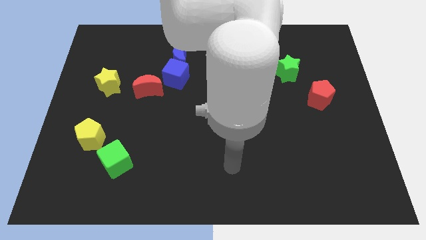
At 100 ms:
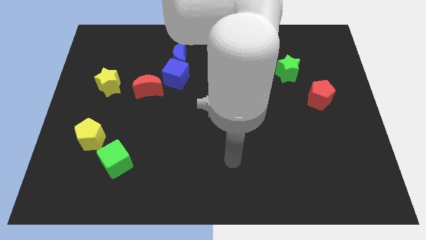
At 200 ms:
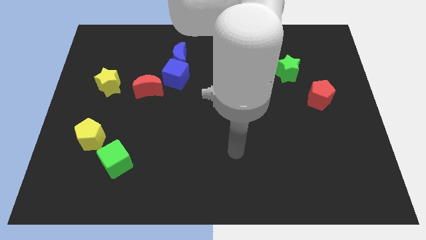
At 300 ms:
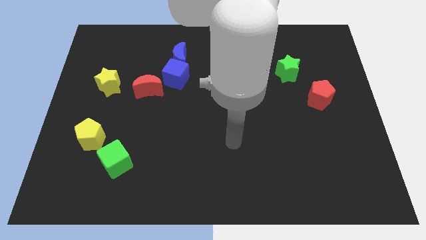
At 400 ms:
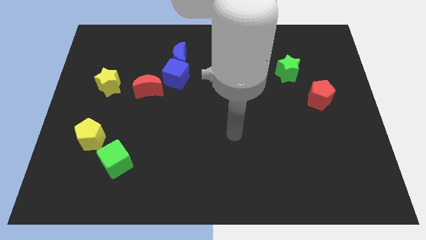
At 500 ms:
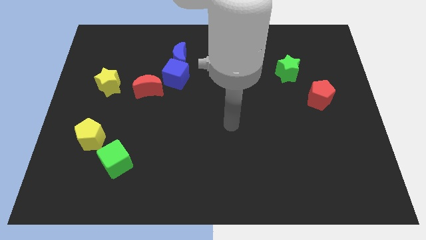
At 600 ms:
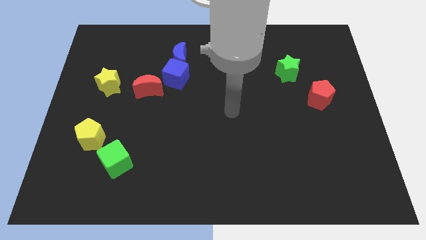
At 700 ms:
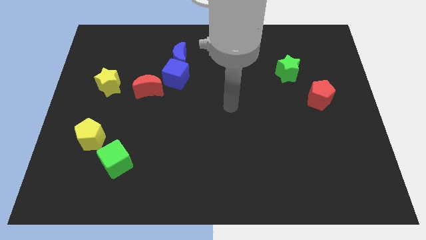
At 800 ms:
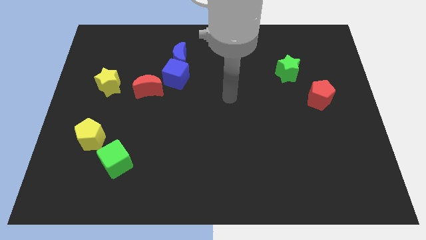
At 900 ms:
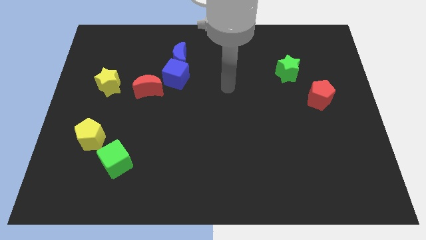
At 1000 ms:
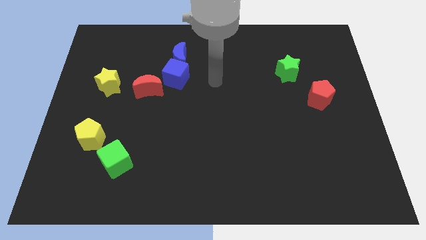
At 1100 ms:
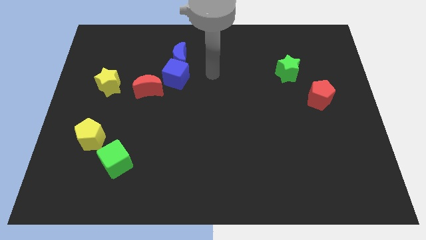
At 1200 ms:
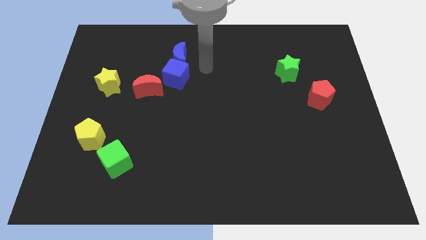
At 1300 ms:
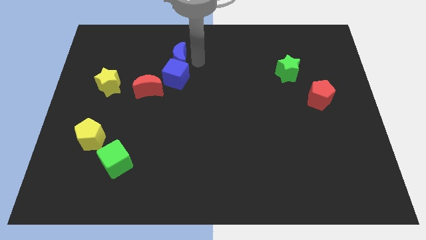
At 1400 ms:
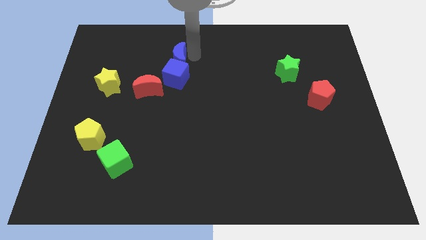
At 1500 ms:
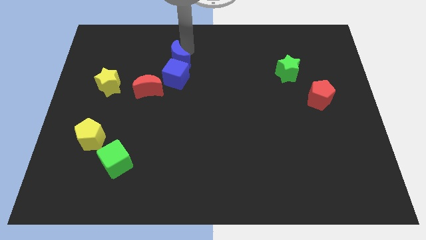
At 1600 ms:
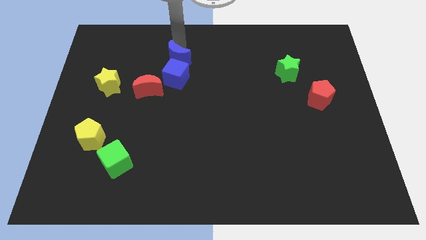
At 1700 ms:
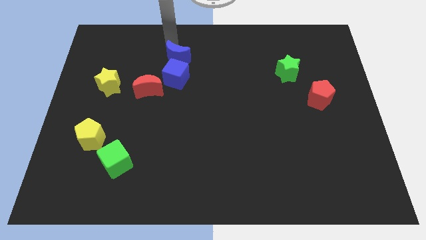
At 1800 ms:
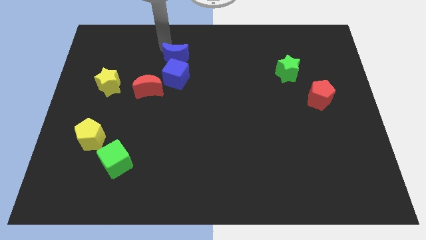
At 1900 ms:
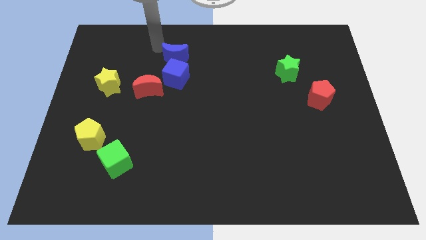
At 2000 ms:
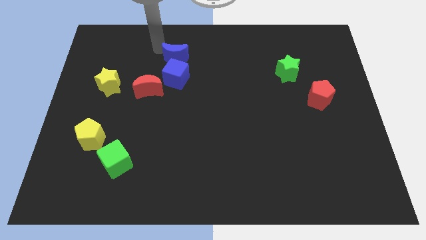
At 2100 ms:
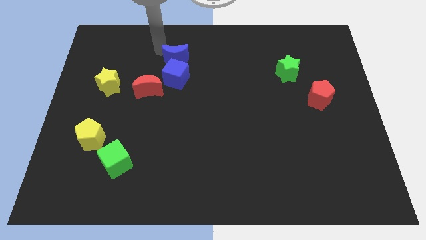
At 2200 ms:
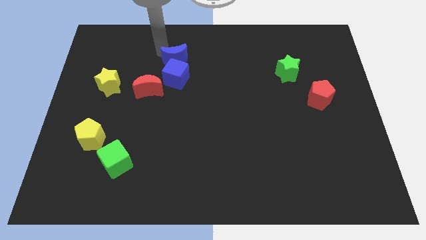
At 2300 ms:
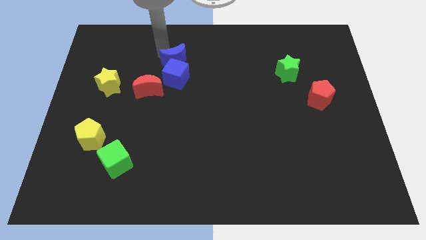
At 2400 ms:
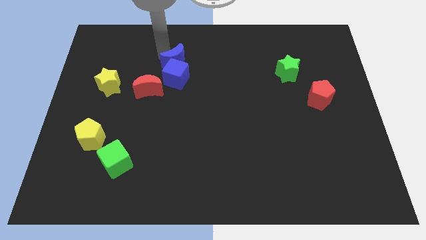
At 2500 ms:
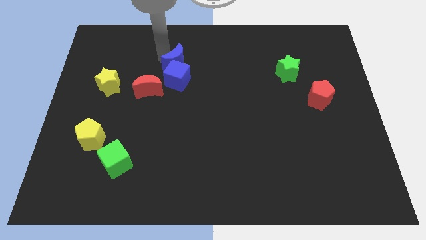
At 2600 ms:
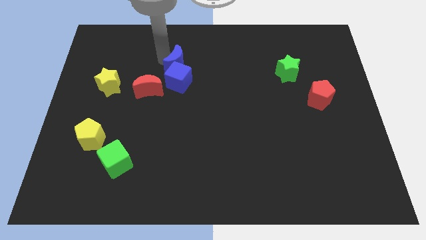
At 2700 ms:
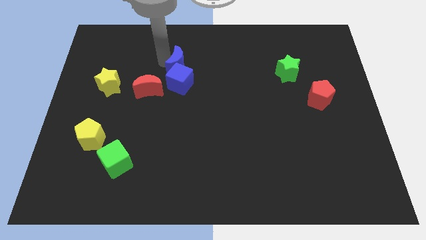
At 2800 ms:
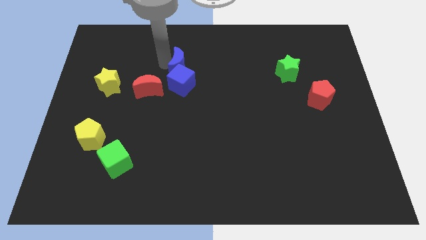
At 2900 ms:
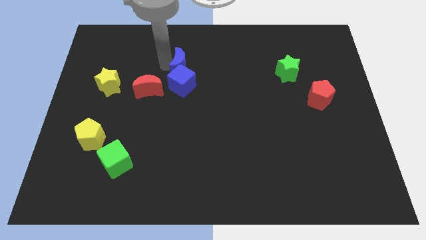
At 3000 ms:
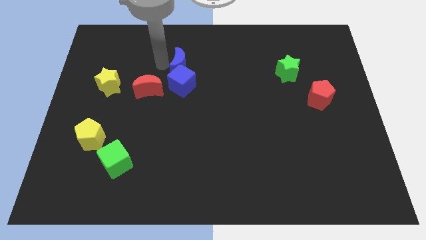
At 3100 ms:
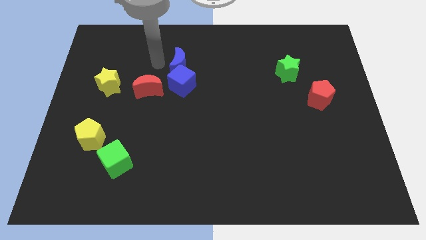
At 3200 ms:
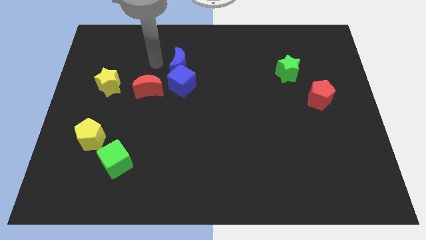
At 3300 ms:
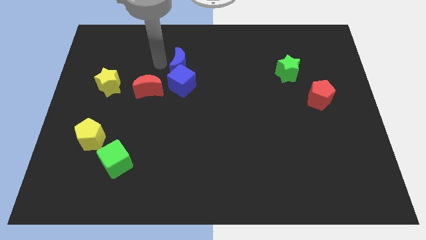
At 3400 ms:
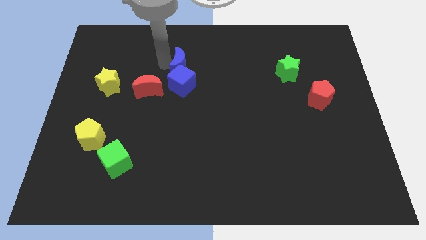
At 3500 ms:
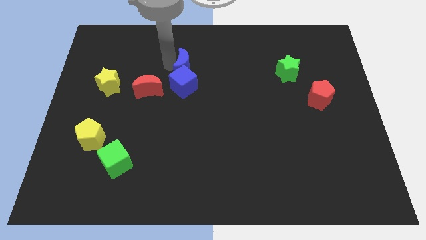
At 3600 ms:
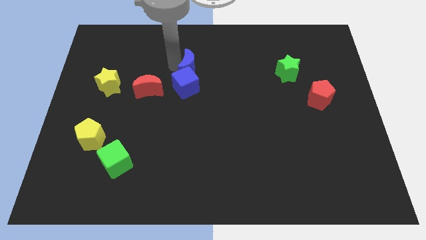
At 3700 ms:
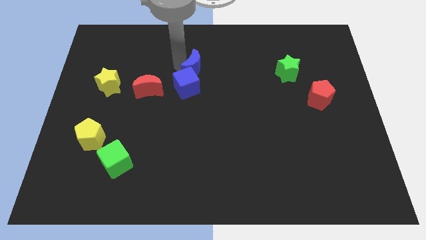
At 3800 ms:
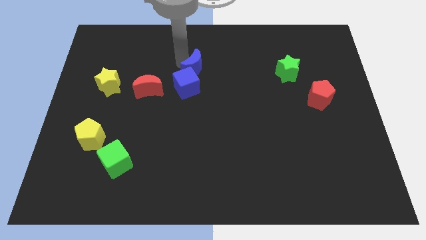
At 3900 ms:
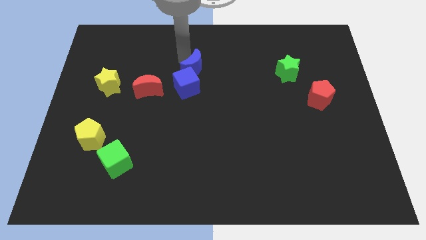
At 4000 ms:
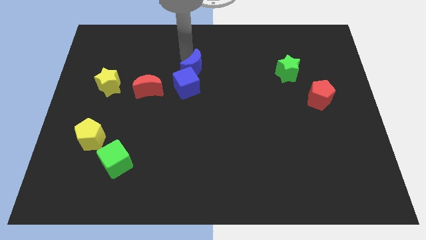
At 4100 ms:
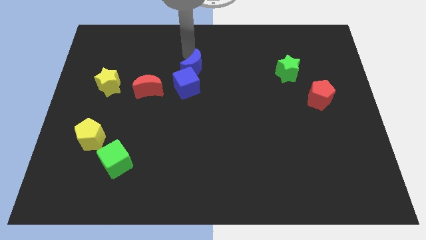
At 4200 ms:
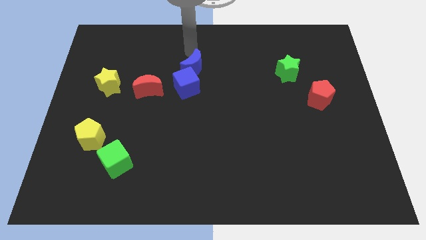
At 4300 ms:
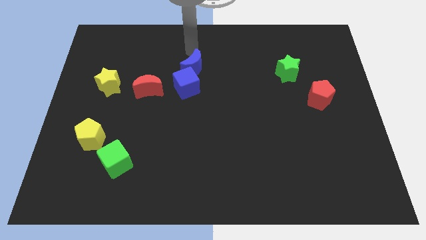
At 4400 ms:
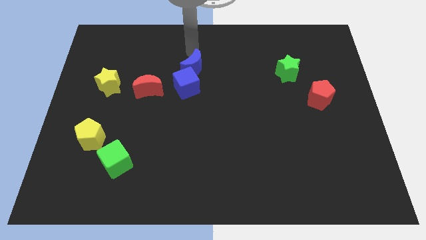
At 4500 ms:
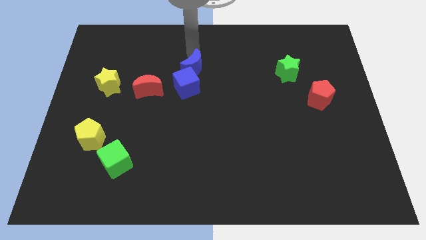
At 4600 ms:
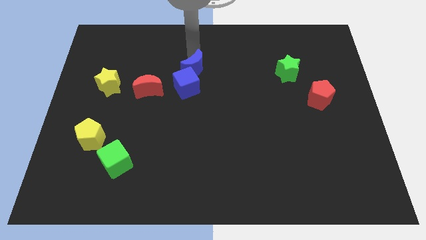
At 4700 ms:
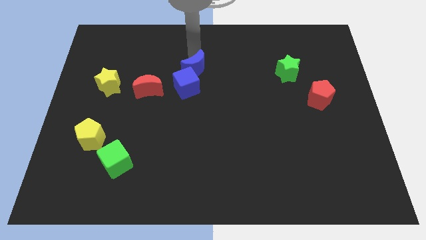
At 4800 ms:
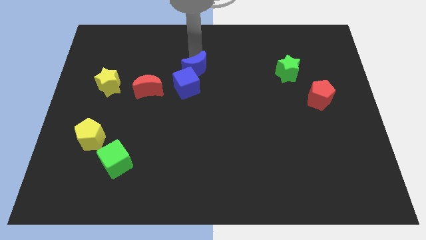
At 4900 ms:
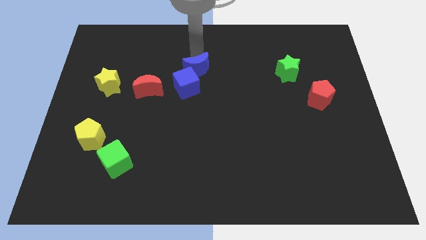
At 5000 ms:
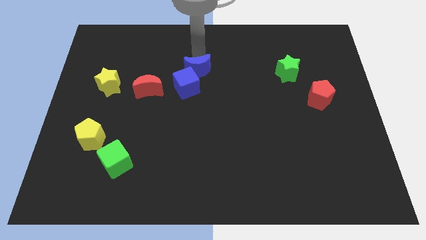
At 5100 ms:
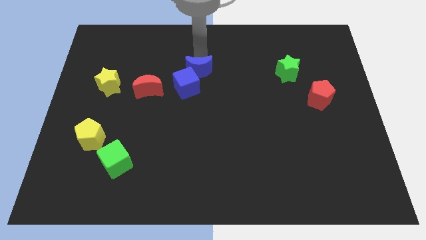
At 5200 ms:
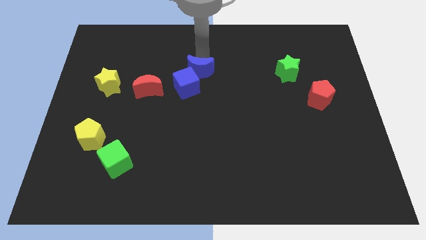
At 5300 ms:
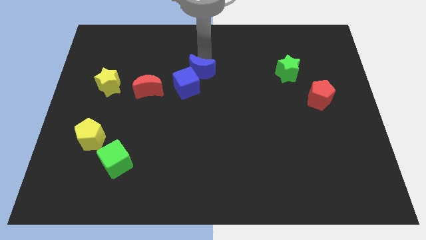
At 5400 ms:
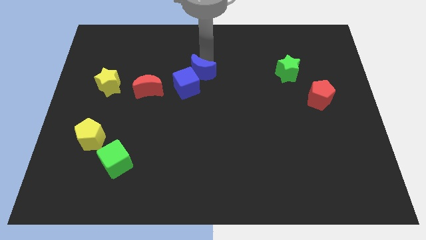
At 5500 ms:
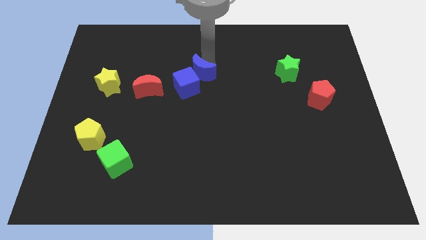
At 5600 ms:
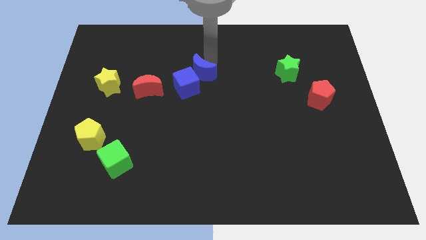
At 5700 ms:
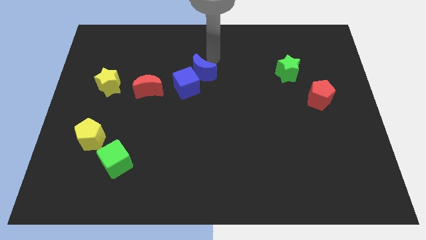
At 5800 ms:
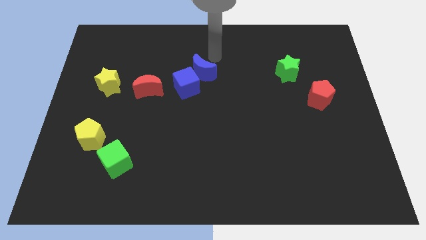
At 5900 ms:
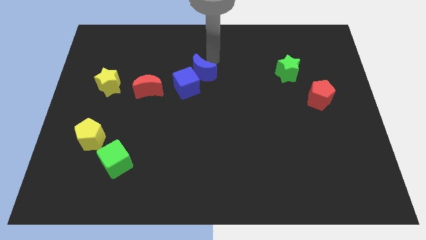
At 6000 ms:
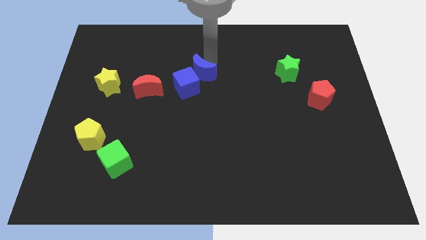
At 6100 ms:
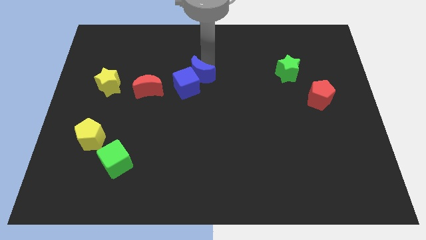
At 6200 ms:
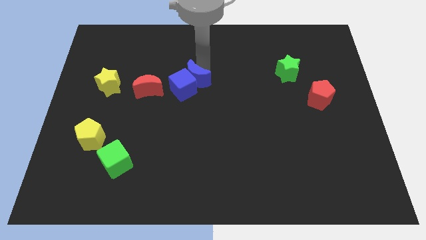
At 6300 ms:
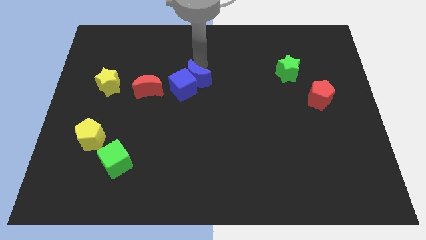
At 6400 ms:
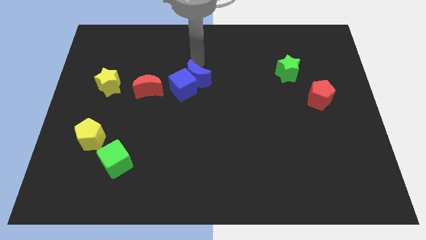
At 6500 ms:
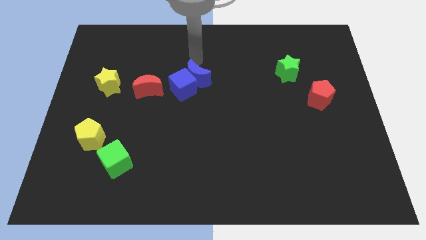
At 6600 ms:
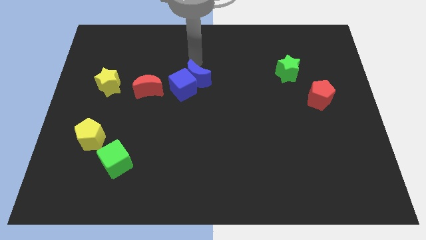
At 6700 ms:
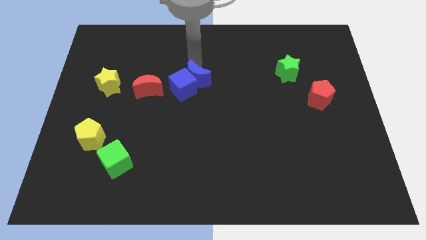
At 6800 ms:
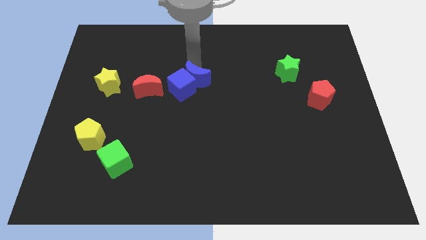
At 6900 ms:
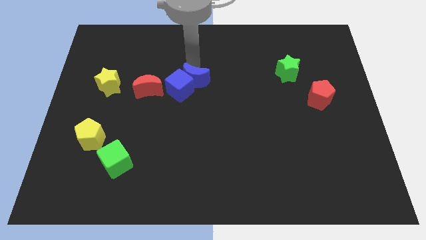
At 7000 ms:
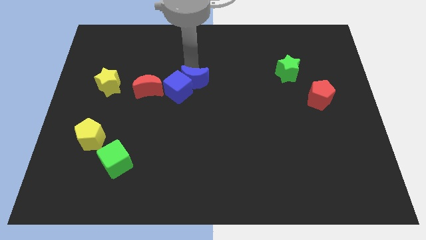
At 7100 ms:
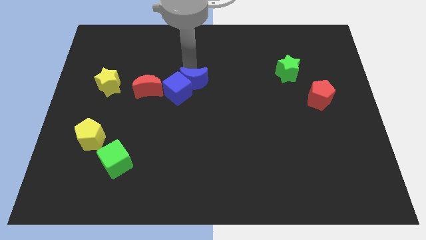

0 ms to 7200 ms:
move the blue moon down a little

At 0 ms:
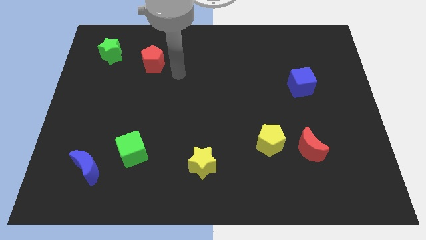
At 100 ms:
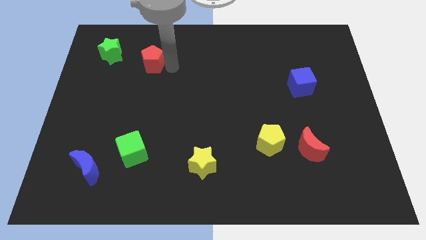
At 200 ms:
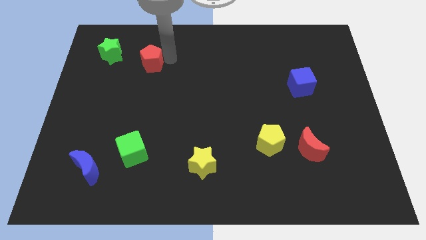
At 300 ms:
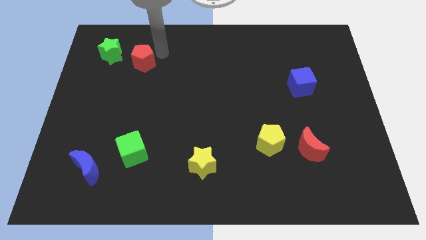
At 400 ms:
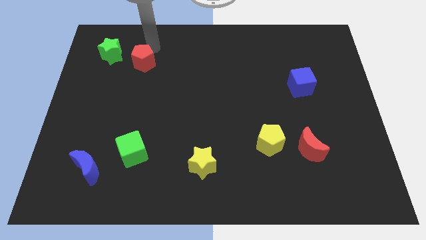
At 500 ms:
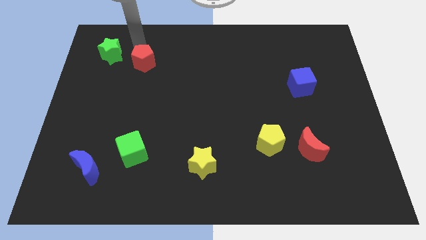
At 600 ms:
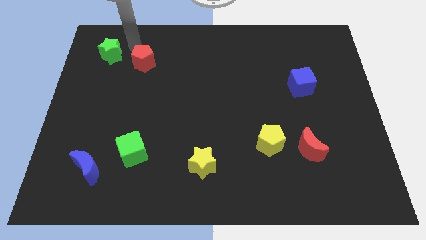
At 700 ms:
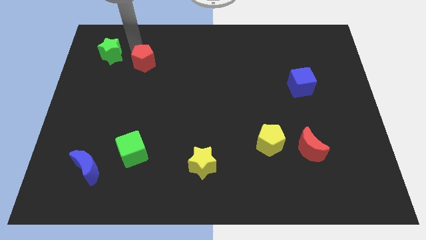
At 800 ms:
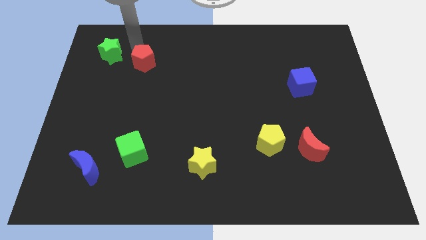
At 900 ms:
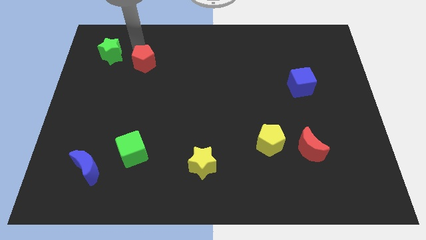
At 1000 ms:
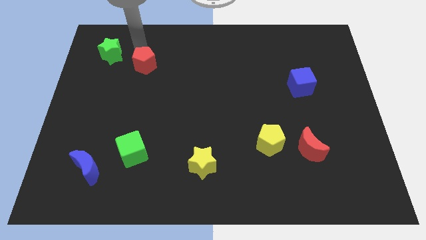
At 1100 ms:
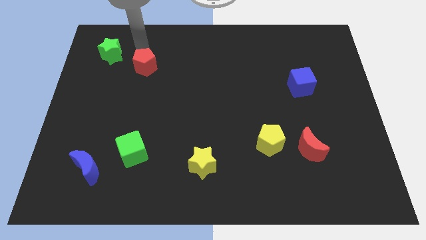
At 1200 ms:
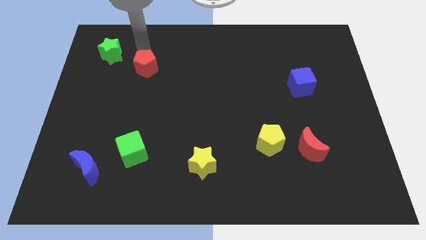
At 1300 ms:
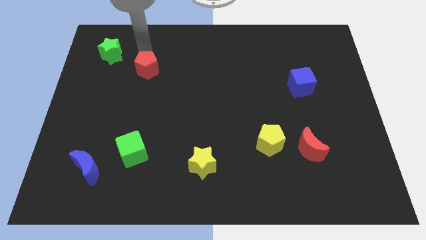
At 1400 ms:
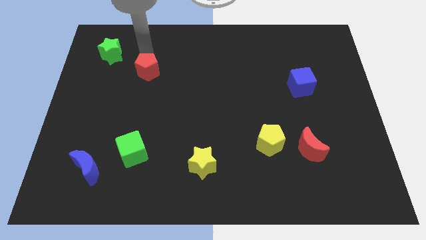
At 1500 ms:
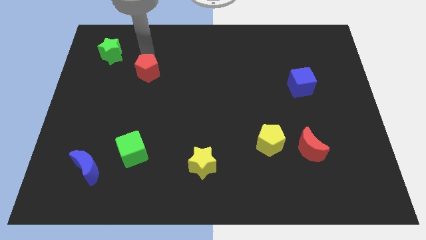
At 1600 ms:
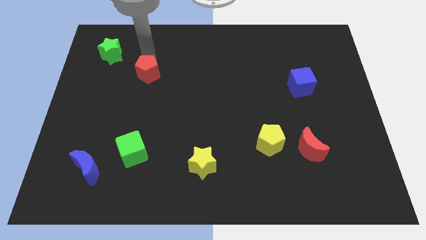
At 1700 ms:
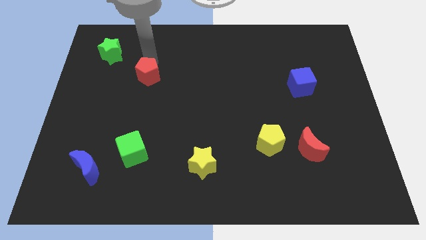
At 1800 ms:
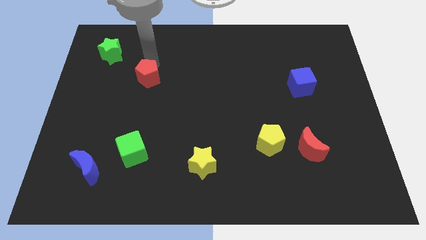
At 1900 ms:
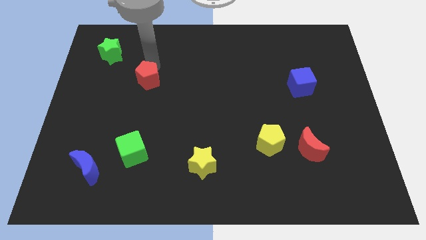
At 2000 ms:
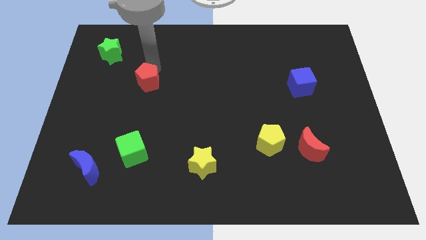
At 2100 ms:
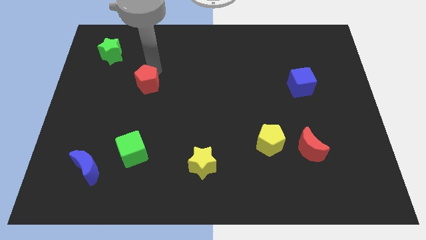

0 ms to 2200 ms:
push the red pentagon a bit down
